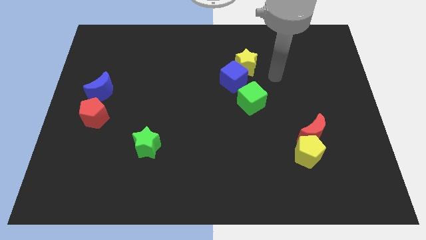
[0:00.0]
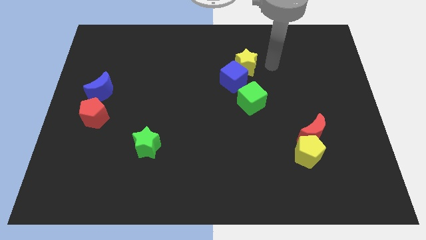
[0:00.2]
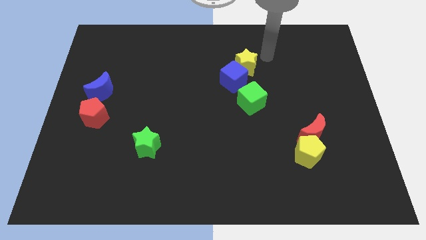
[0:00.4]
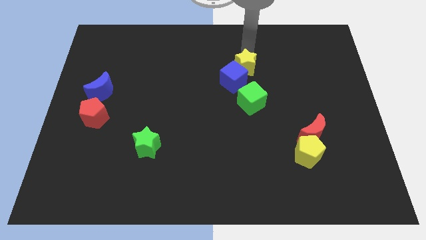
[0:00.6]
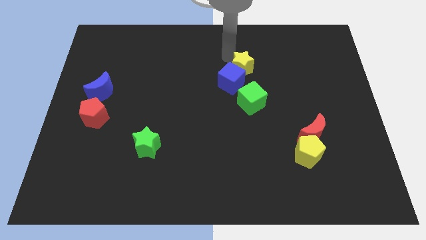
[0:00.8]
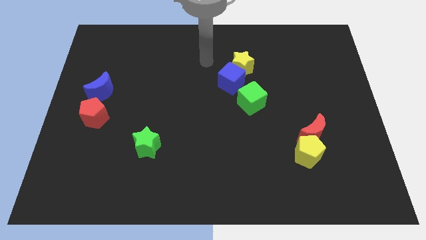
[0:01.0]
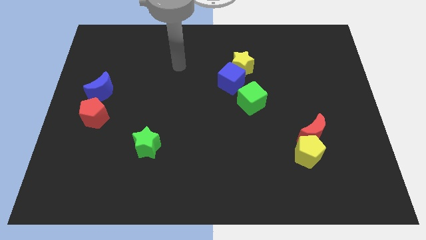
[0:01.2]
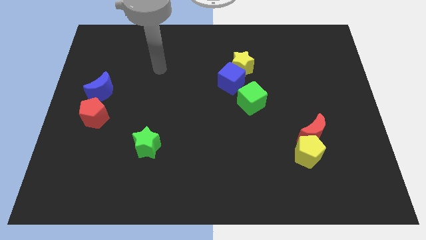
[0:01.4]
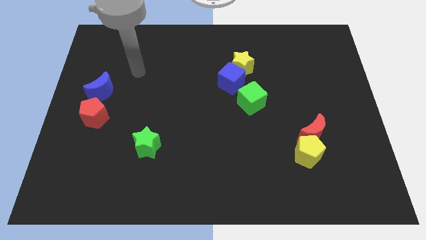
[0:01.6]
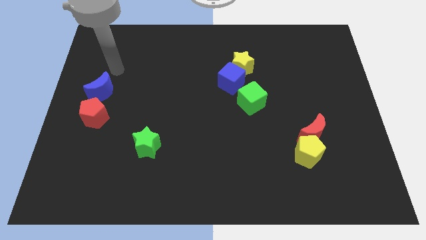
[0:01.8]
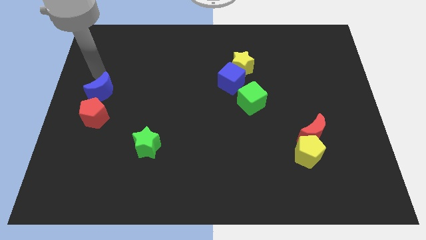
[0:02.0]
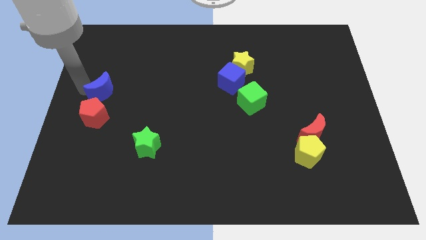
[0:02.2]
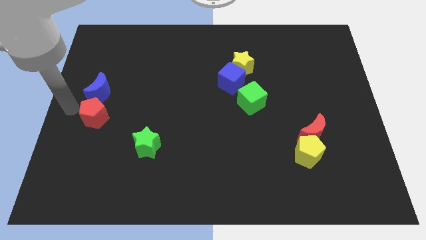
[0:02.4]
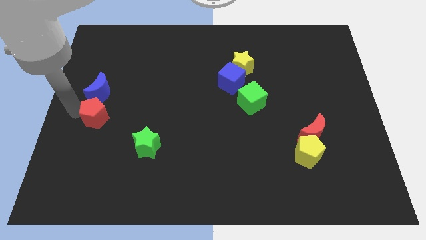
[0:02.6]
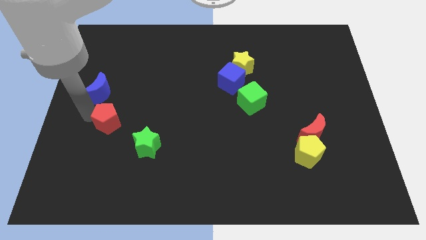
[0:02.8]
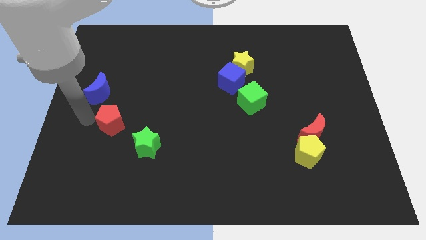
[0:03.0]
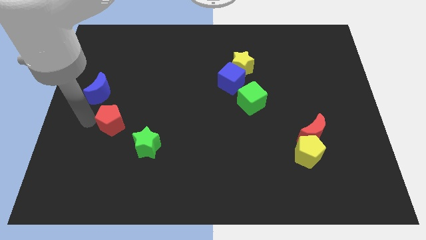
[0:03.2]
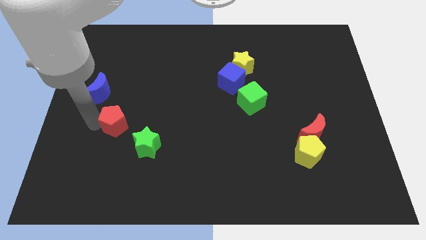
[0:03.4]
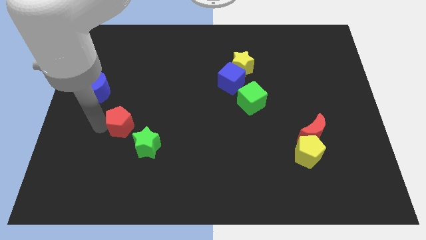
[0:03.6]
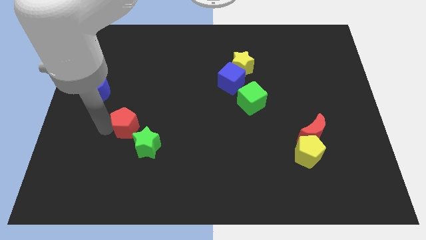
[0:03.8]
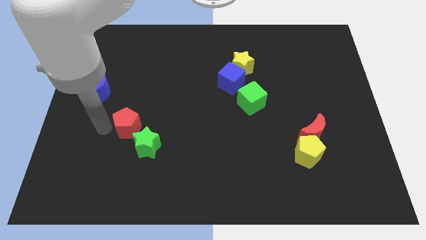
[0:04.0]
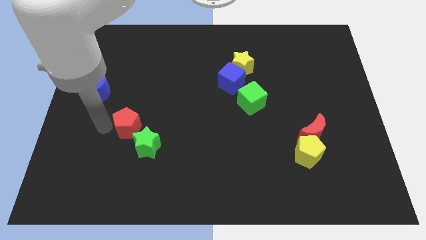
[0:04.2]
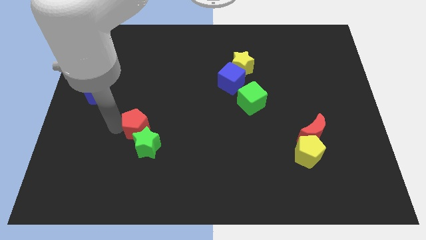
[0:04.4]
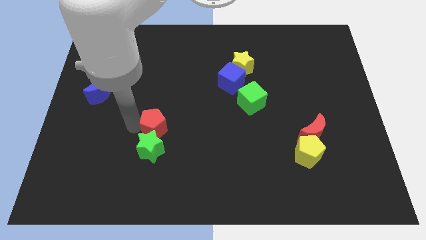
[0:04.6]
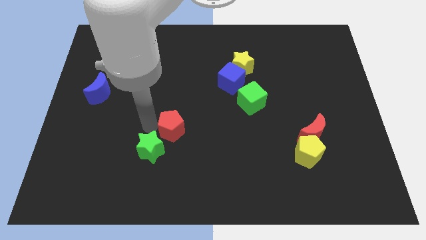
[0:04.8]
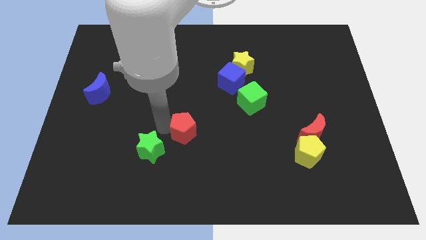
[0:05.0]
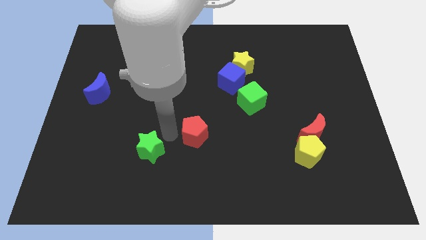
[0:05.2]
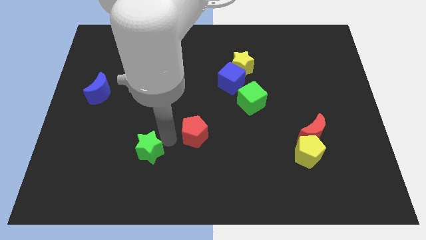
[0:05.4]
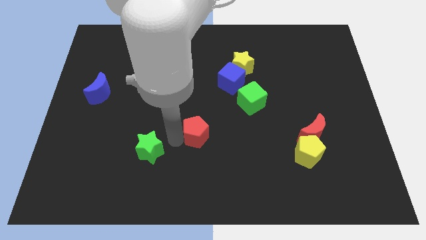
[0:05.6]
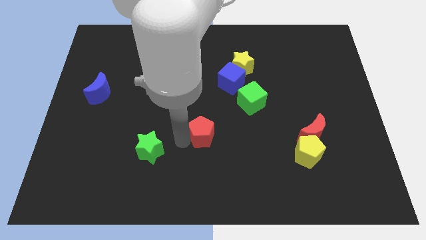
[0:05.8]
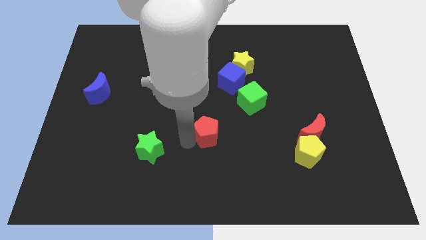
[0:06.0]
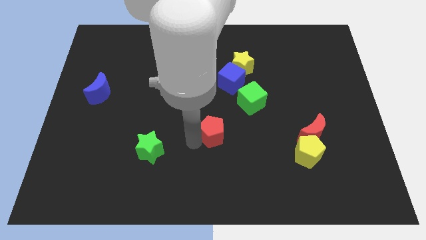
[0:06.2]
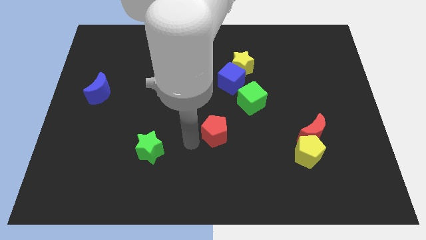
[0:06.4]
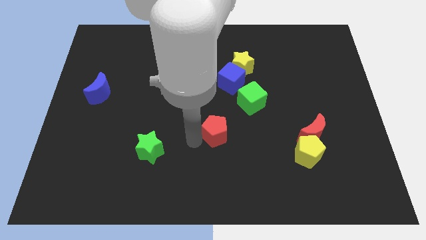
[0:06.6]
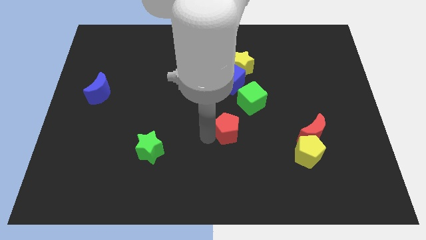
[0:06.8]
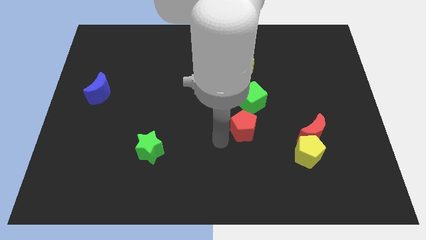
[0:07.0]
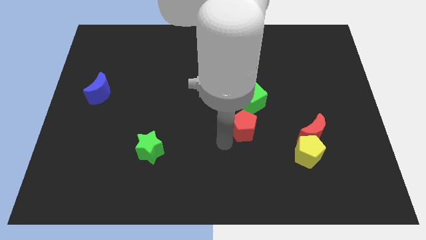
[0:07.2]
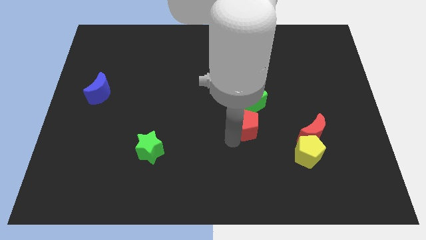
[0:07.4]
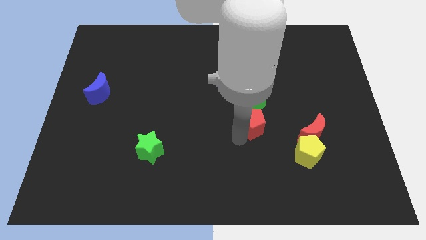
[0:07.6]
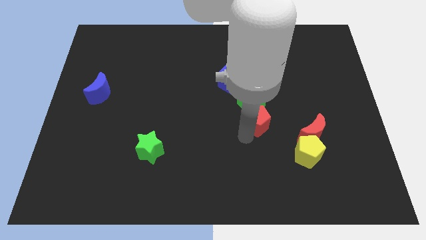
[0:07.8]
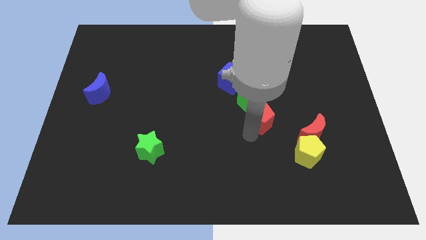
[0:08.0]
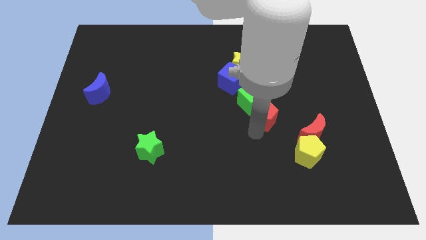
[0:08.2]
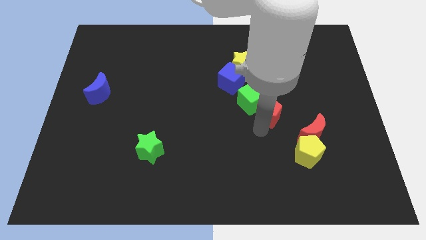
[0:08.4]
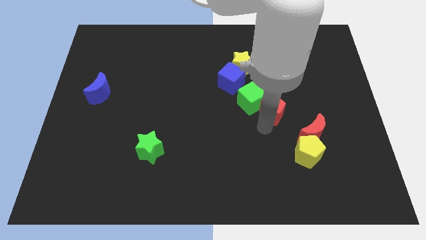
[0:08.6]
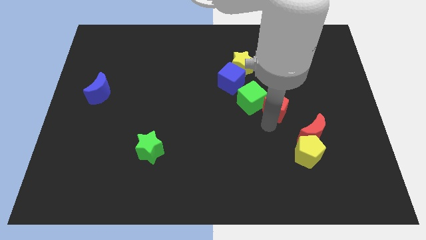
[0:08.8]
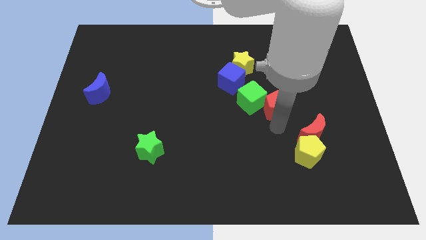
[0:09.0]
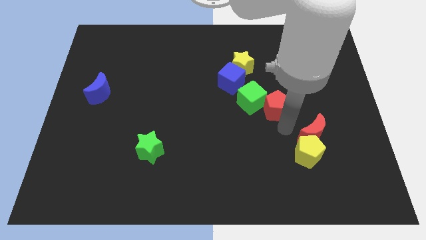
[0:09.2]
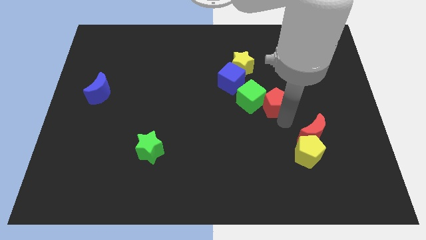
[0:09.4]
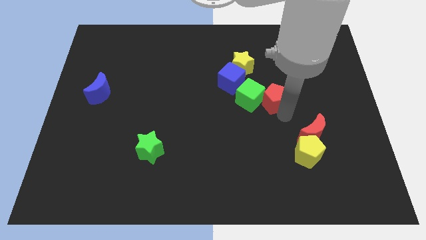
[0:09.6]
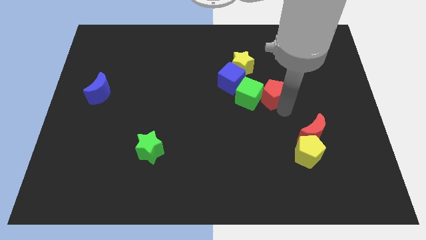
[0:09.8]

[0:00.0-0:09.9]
slide the red pentagon diagonally down and to the right of the yellow star

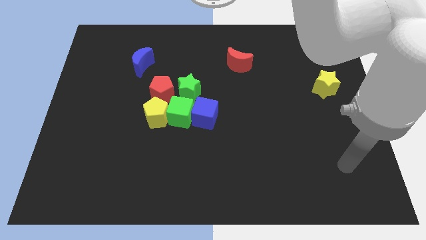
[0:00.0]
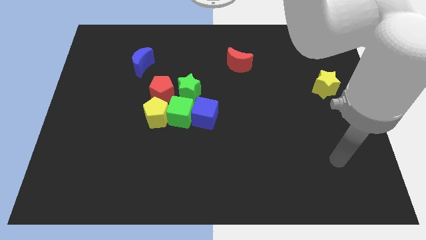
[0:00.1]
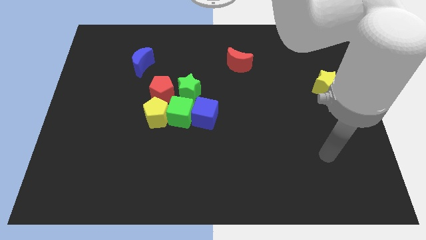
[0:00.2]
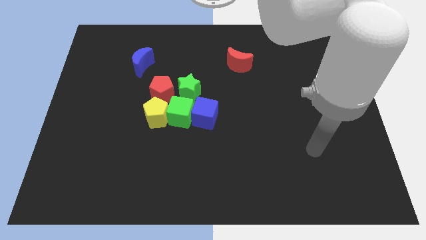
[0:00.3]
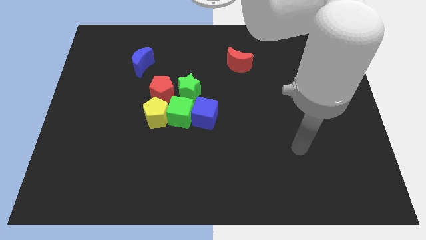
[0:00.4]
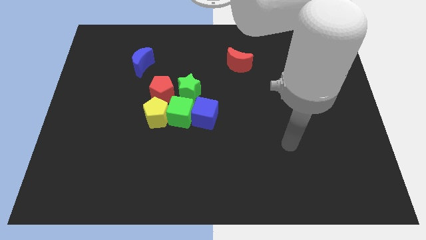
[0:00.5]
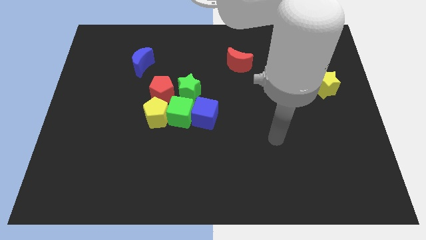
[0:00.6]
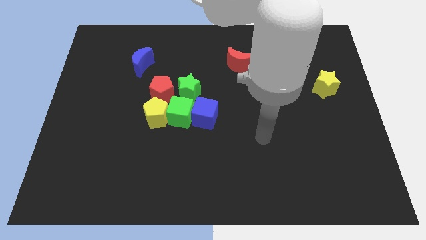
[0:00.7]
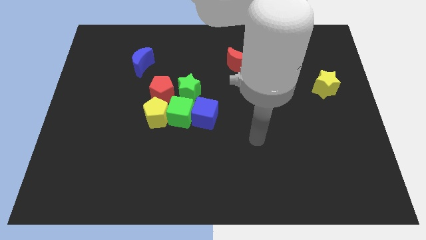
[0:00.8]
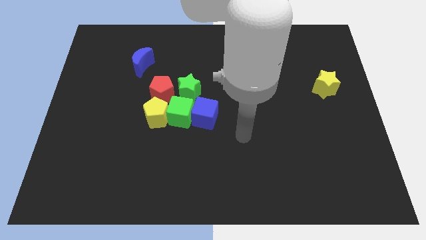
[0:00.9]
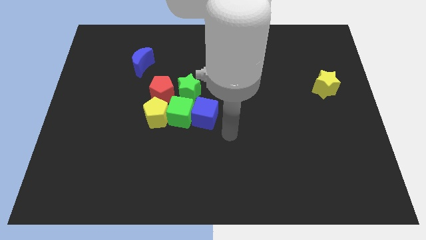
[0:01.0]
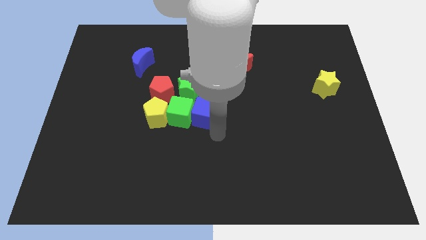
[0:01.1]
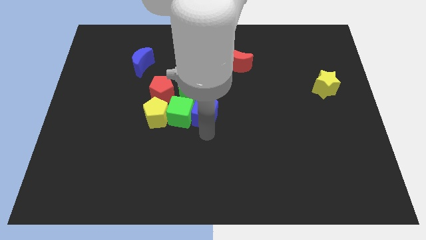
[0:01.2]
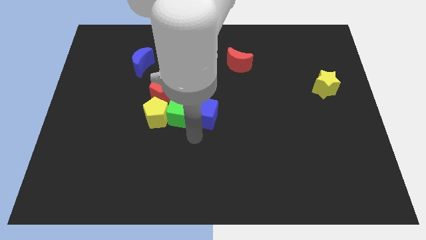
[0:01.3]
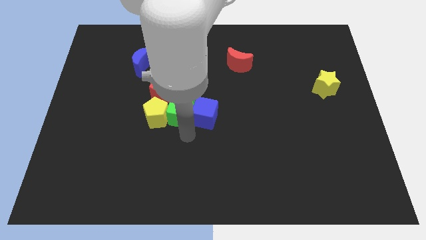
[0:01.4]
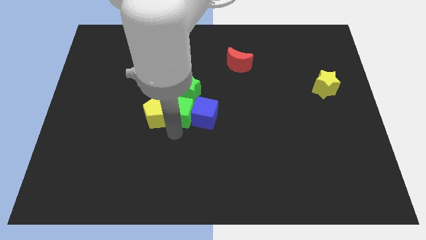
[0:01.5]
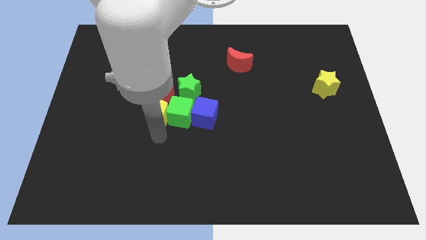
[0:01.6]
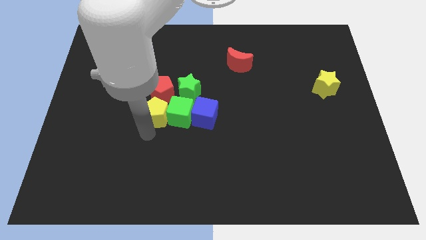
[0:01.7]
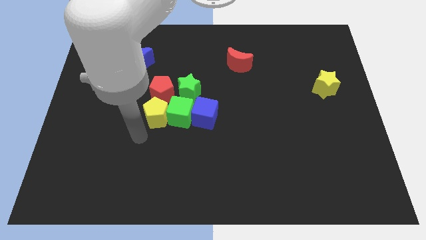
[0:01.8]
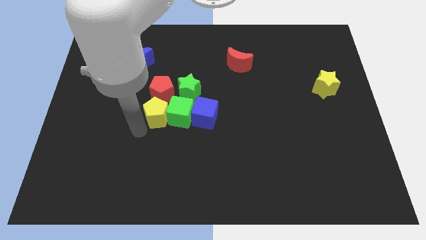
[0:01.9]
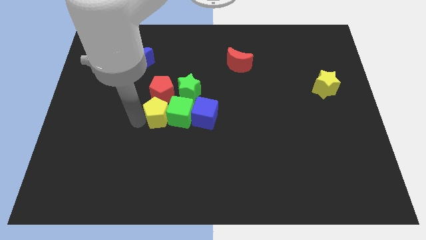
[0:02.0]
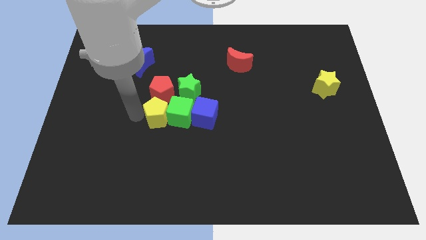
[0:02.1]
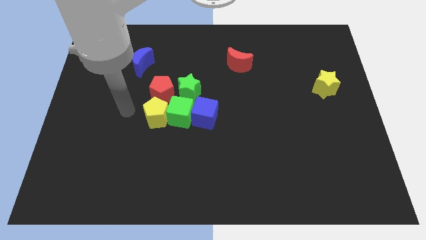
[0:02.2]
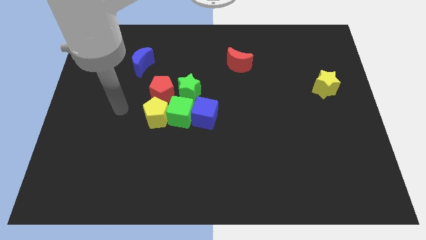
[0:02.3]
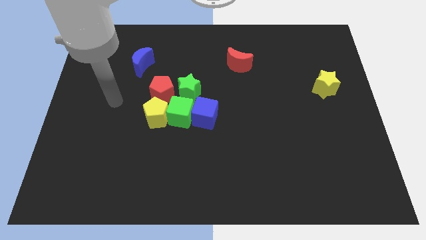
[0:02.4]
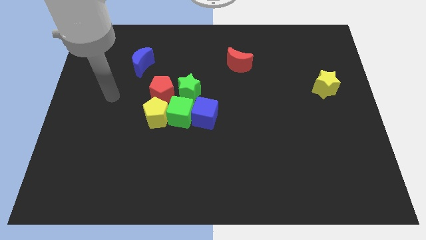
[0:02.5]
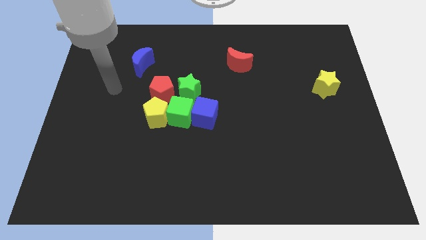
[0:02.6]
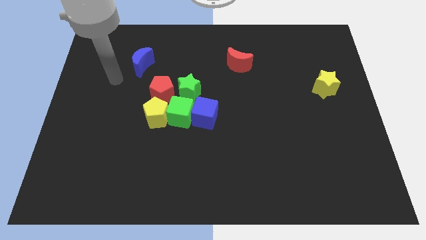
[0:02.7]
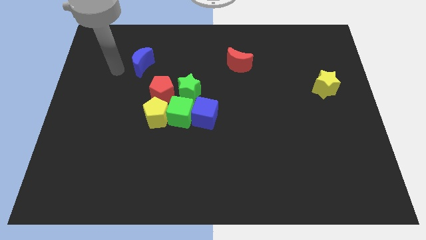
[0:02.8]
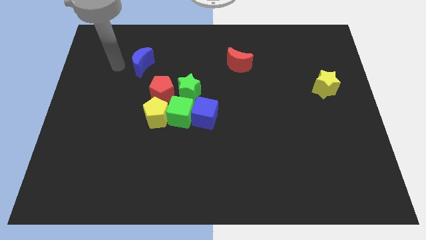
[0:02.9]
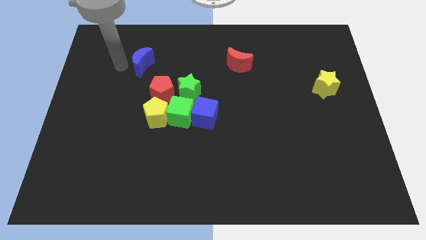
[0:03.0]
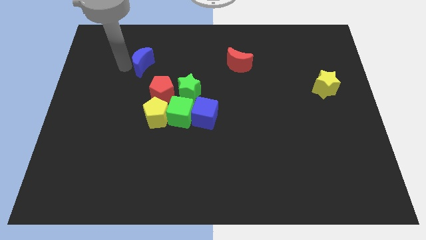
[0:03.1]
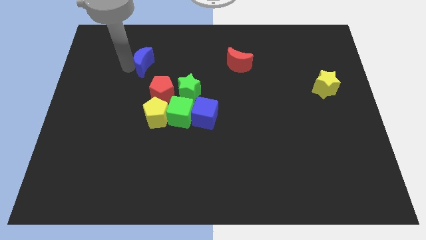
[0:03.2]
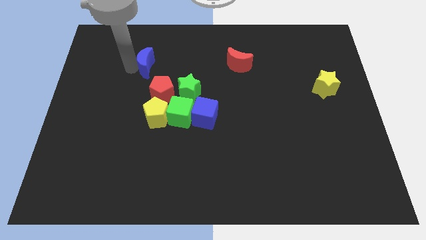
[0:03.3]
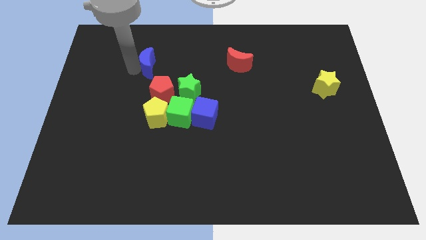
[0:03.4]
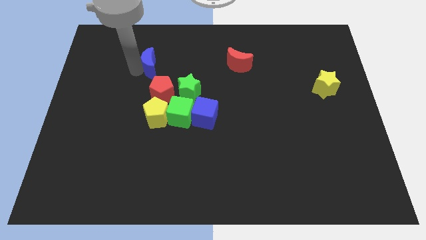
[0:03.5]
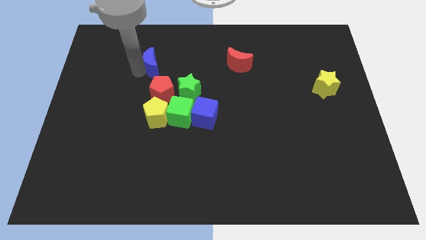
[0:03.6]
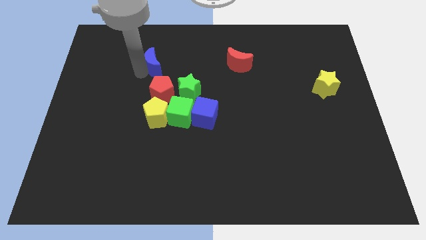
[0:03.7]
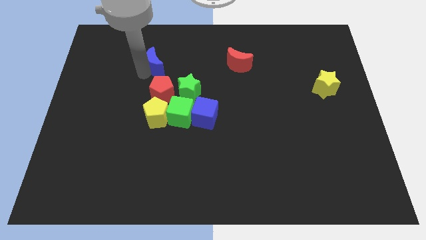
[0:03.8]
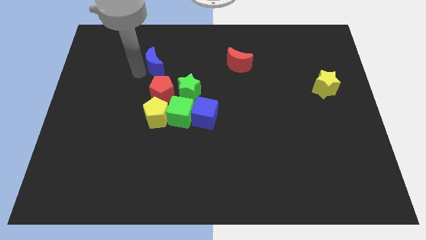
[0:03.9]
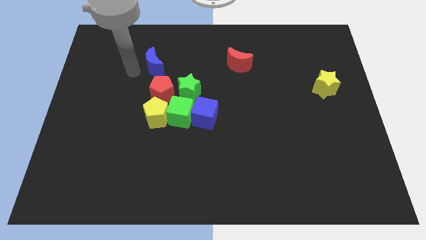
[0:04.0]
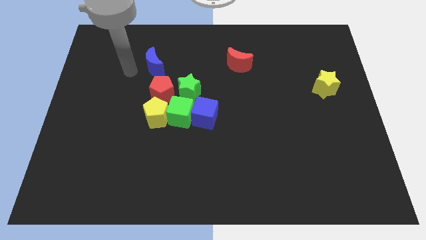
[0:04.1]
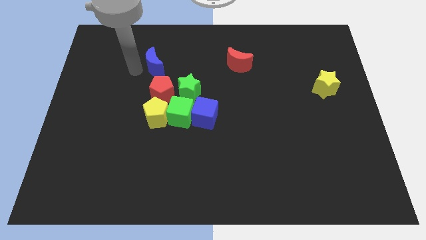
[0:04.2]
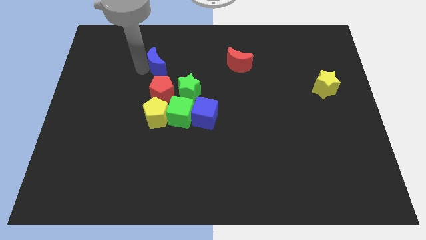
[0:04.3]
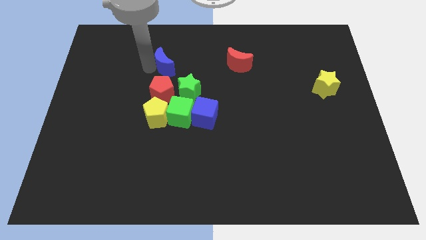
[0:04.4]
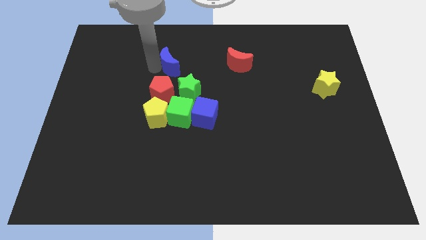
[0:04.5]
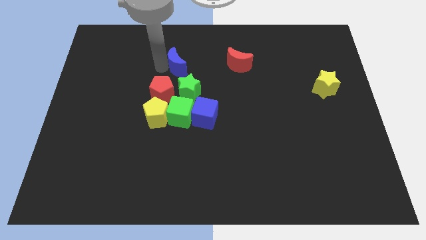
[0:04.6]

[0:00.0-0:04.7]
push the blue moon to the top of the green star
